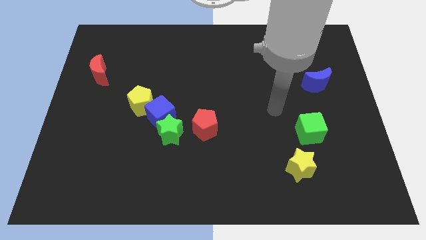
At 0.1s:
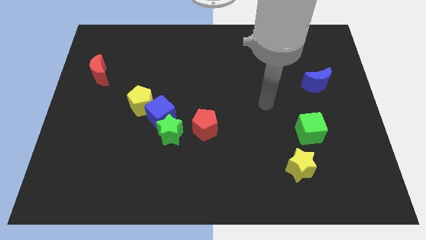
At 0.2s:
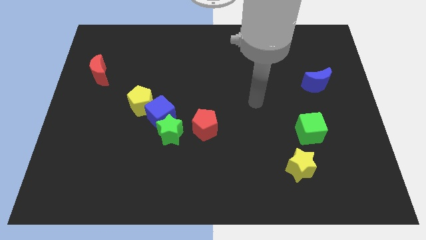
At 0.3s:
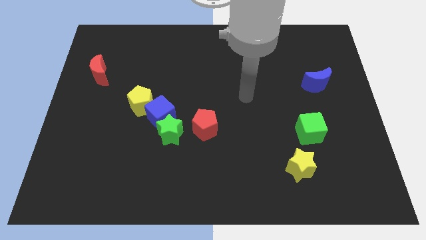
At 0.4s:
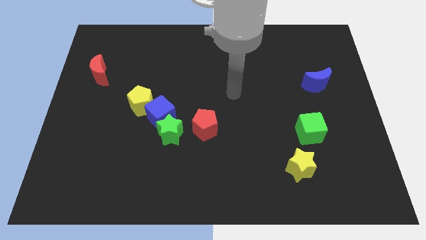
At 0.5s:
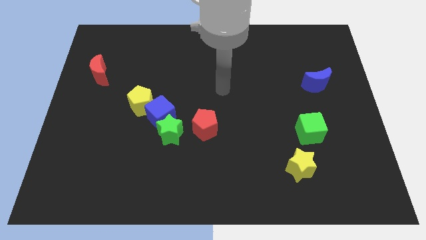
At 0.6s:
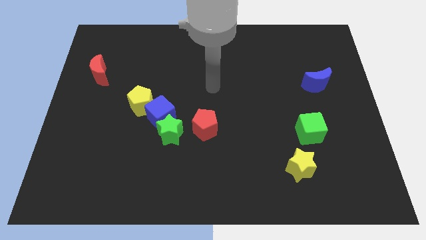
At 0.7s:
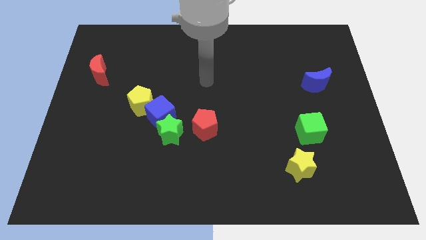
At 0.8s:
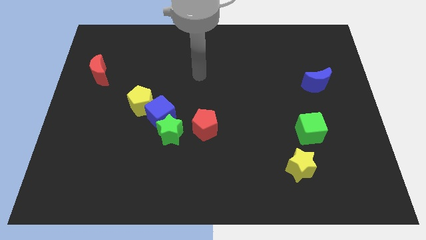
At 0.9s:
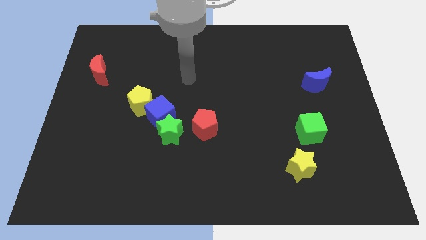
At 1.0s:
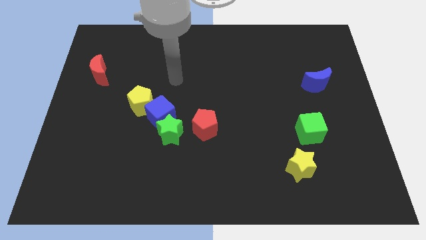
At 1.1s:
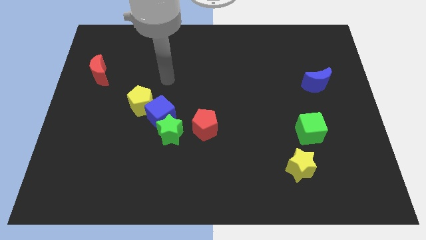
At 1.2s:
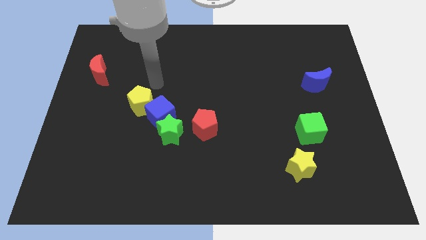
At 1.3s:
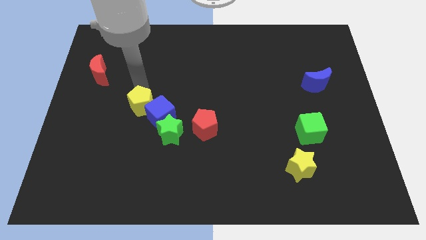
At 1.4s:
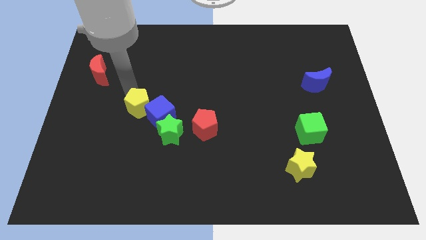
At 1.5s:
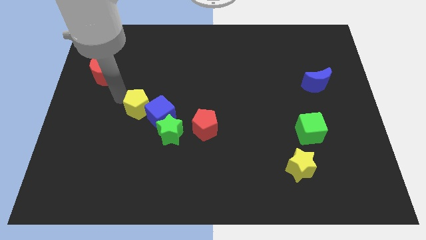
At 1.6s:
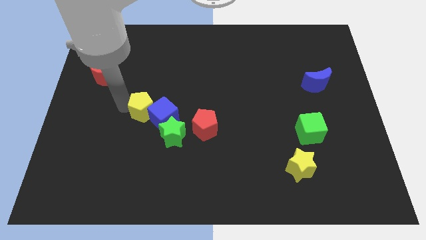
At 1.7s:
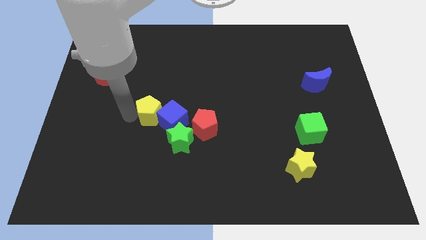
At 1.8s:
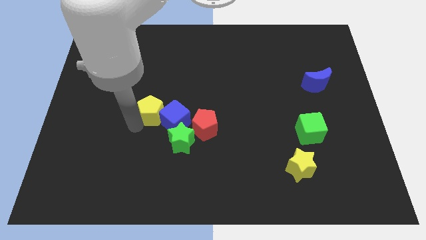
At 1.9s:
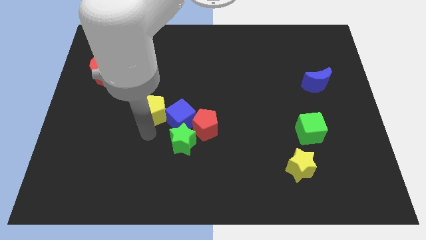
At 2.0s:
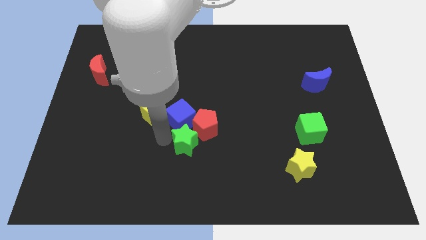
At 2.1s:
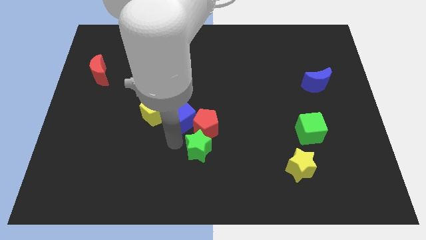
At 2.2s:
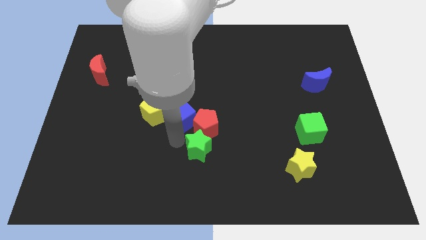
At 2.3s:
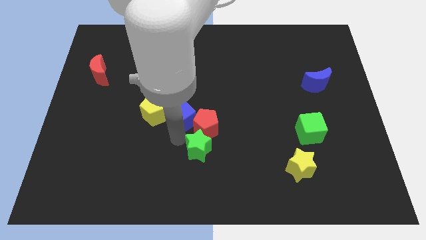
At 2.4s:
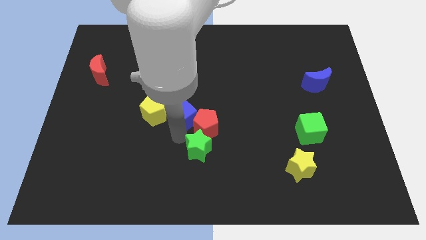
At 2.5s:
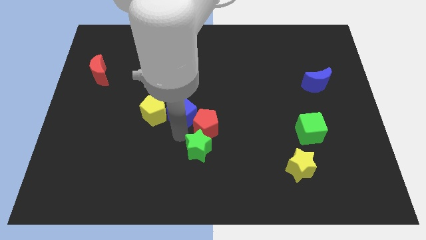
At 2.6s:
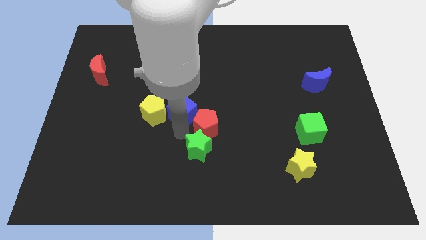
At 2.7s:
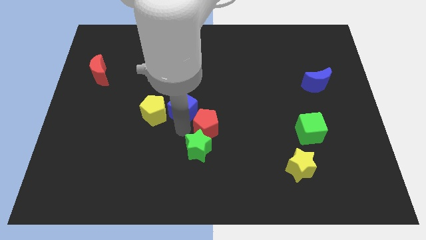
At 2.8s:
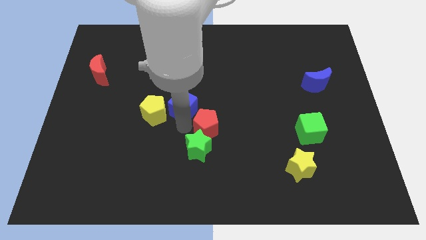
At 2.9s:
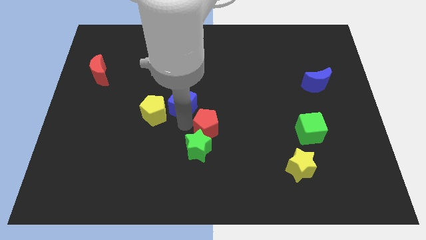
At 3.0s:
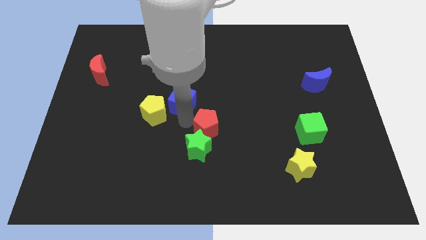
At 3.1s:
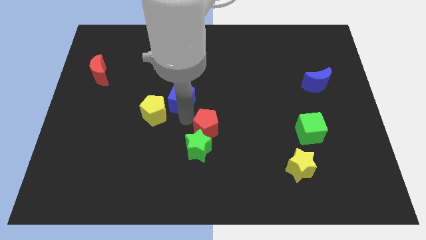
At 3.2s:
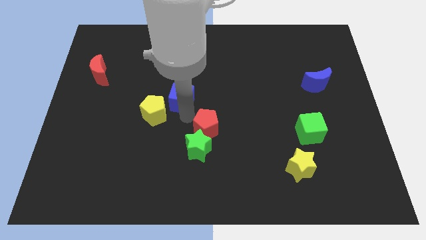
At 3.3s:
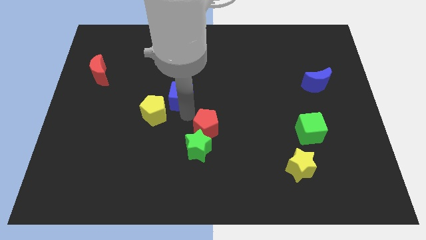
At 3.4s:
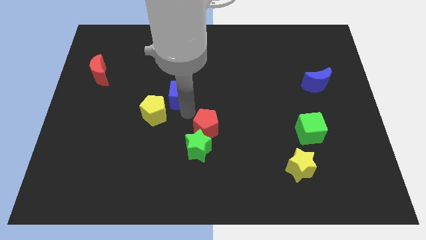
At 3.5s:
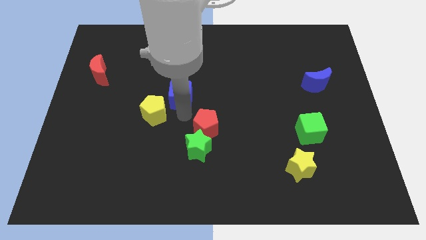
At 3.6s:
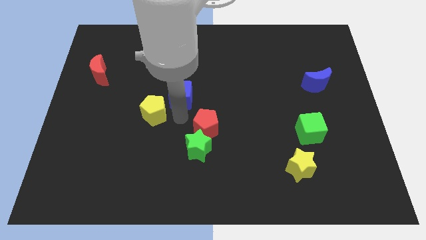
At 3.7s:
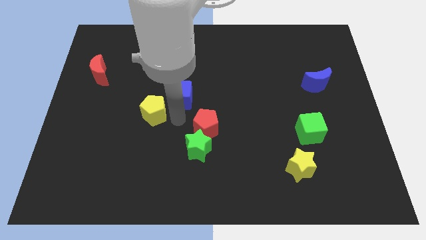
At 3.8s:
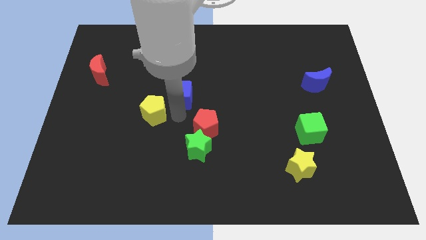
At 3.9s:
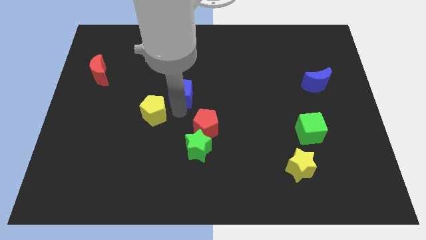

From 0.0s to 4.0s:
pull the blue cube apart from the green star and yellow pentagon

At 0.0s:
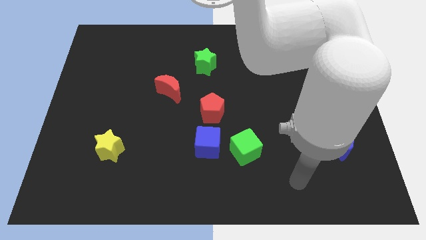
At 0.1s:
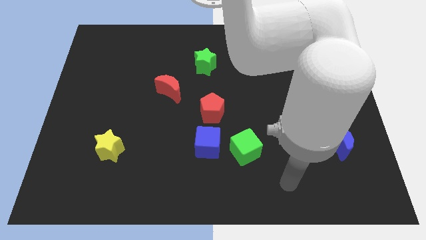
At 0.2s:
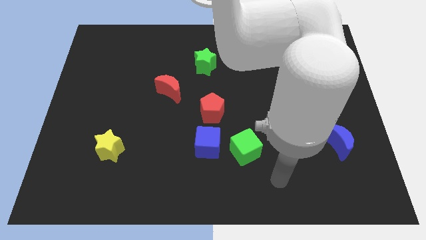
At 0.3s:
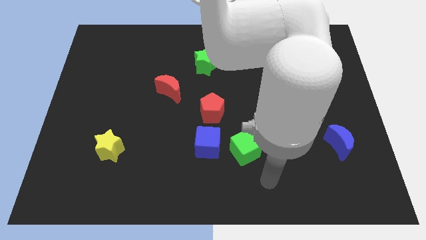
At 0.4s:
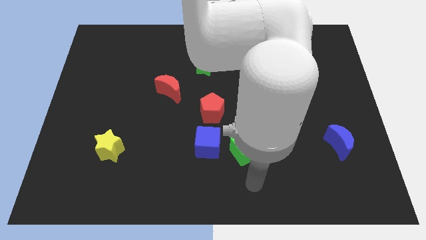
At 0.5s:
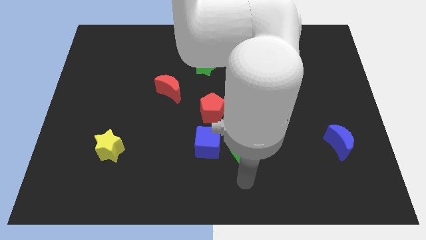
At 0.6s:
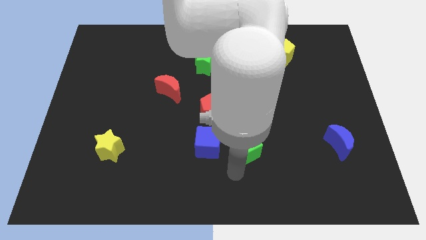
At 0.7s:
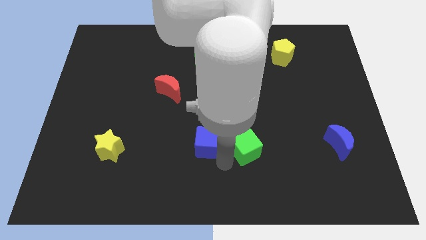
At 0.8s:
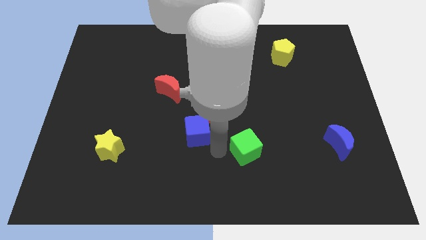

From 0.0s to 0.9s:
pull the green cube apart from the blue cube

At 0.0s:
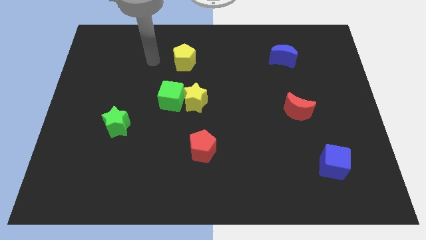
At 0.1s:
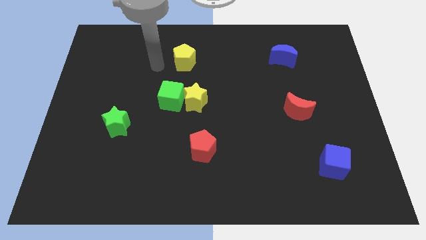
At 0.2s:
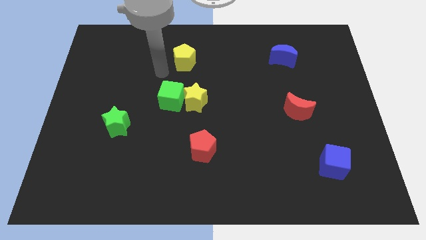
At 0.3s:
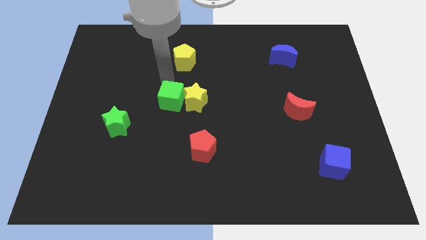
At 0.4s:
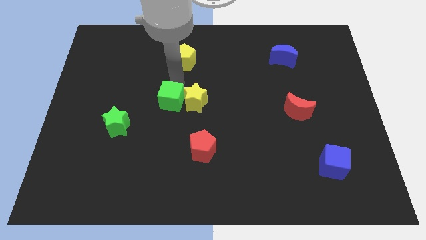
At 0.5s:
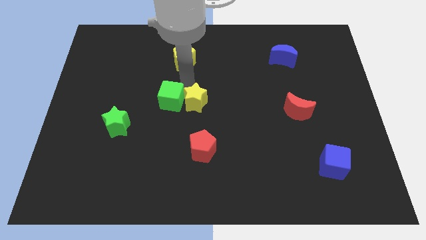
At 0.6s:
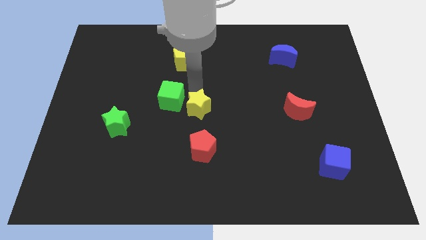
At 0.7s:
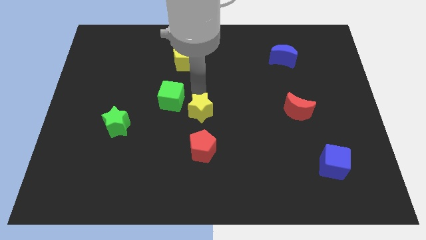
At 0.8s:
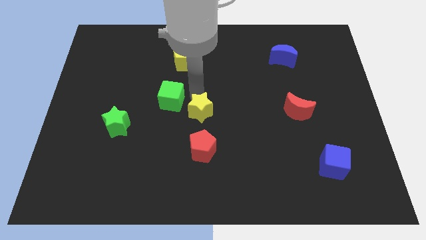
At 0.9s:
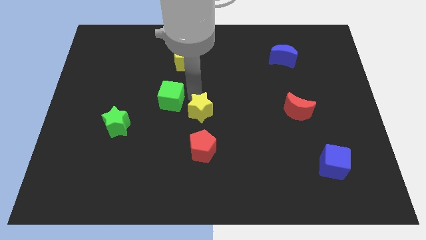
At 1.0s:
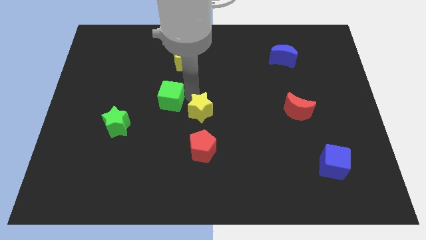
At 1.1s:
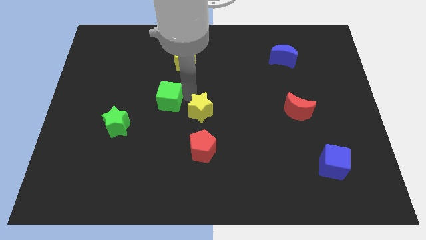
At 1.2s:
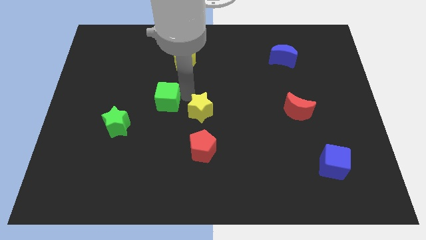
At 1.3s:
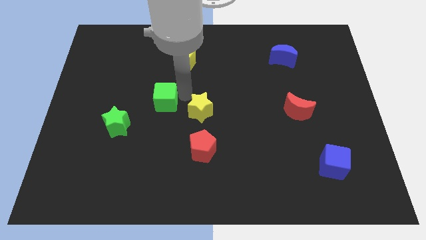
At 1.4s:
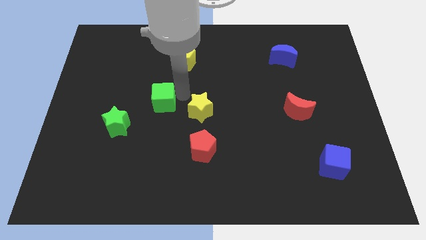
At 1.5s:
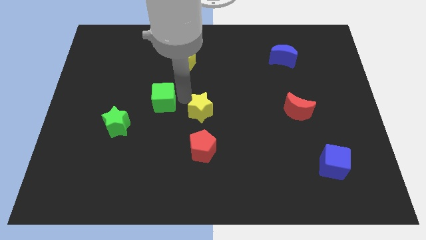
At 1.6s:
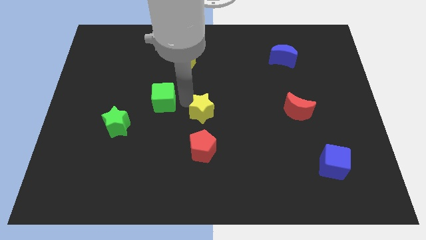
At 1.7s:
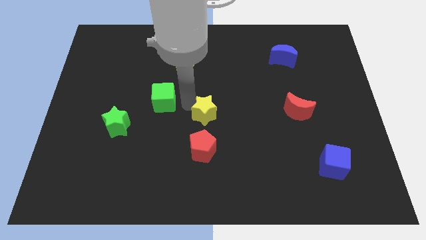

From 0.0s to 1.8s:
separate the green cube from the yellow star

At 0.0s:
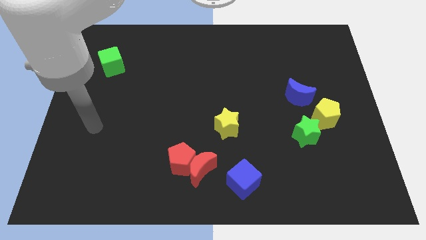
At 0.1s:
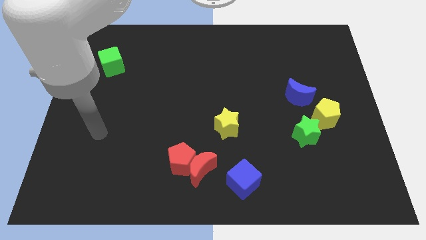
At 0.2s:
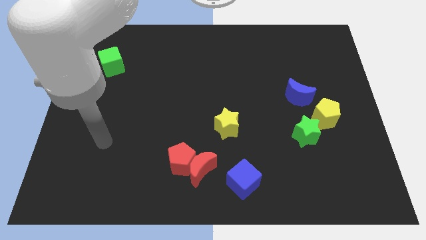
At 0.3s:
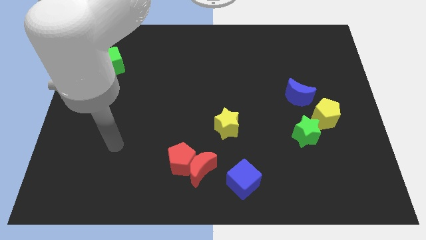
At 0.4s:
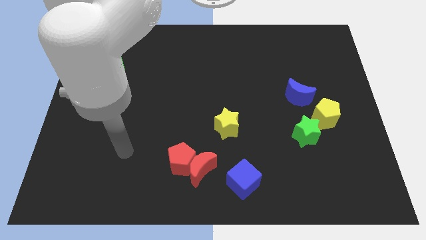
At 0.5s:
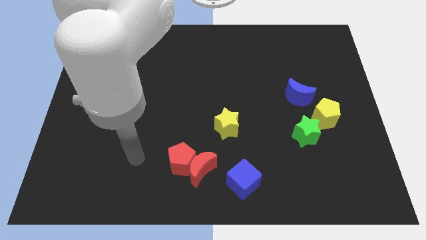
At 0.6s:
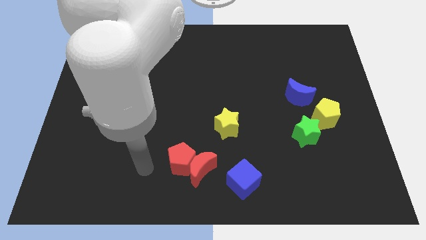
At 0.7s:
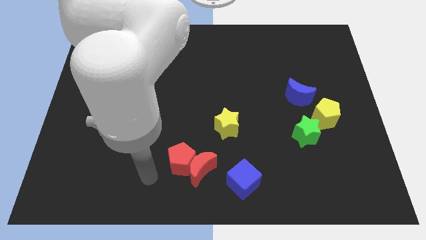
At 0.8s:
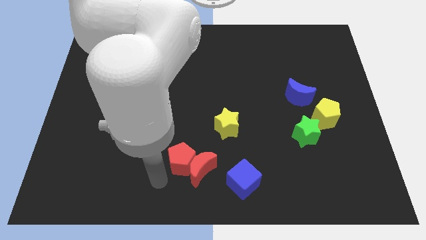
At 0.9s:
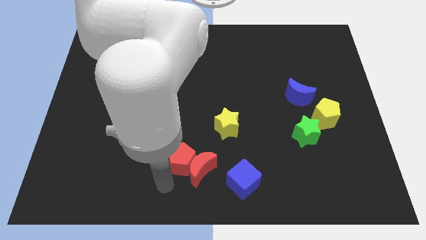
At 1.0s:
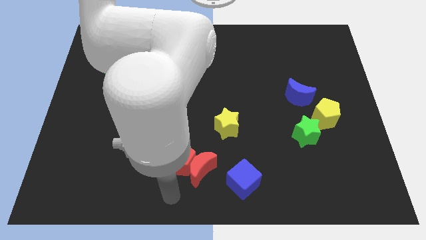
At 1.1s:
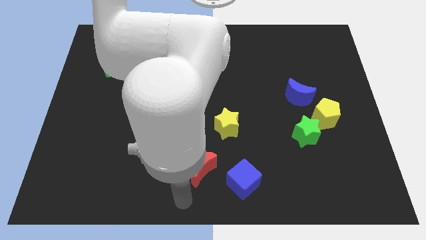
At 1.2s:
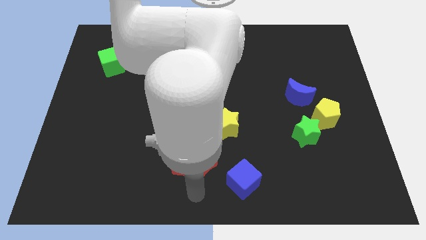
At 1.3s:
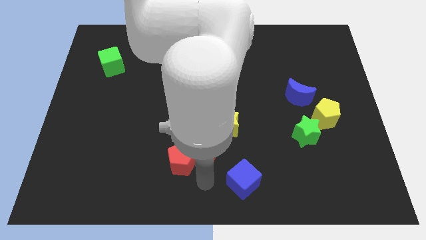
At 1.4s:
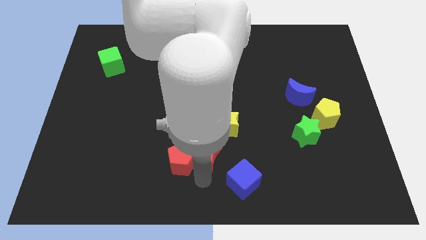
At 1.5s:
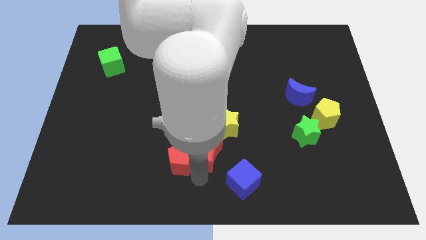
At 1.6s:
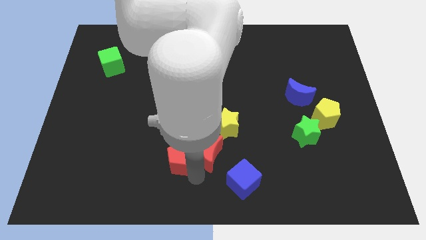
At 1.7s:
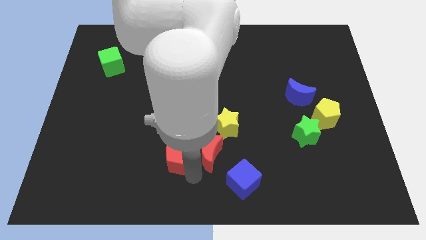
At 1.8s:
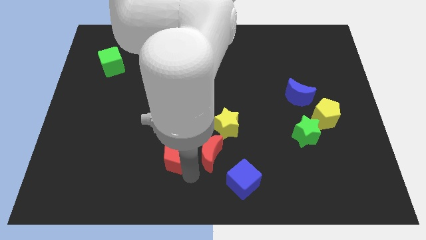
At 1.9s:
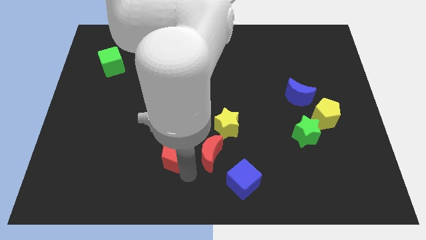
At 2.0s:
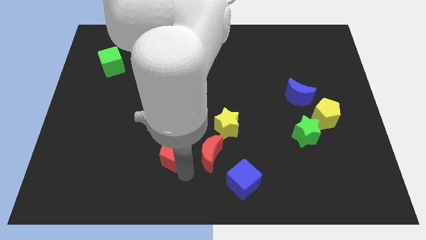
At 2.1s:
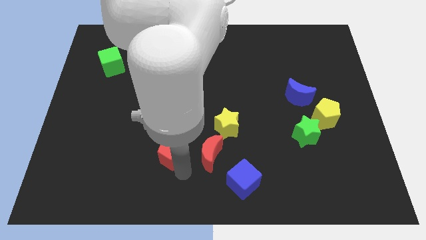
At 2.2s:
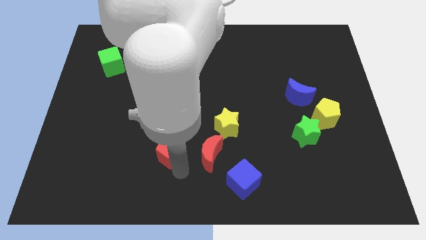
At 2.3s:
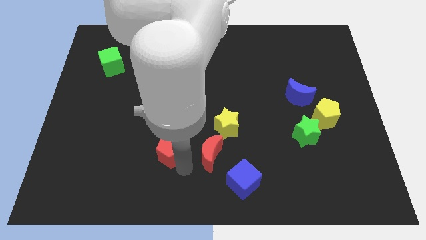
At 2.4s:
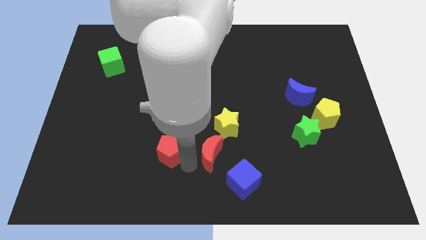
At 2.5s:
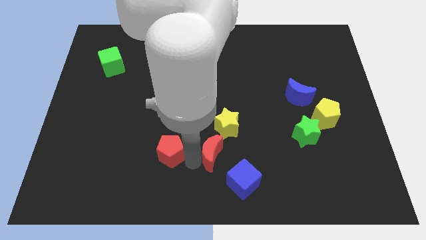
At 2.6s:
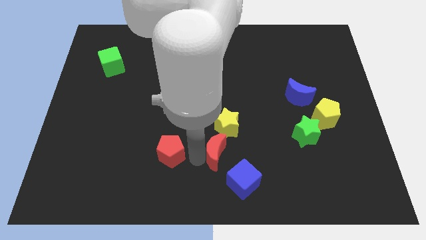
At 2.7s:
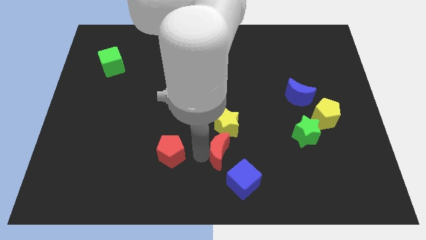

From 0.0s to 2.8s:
separate the red pentagon from the red moon
